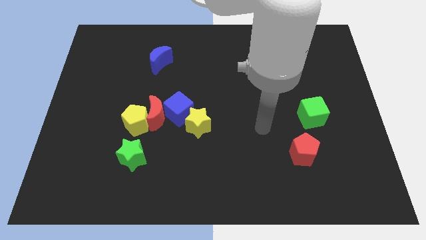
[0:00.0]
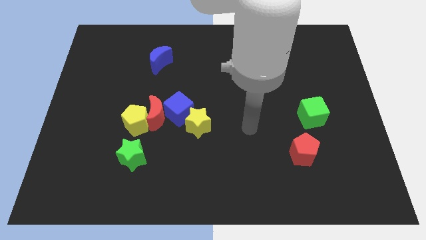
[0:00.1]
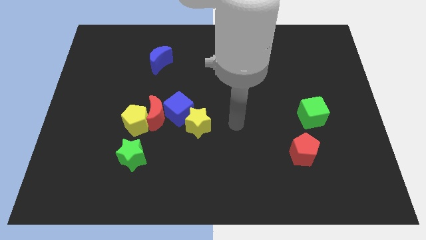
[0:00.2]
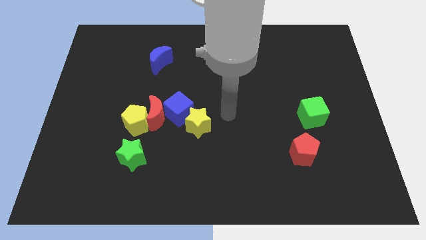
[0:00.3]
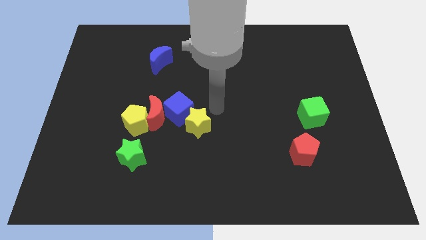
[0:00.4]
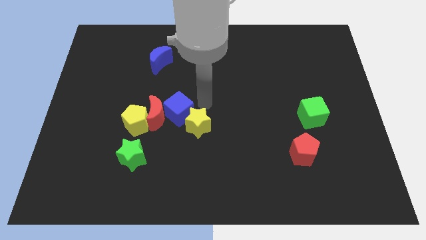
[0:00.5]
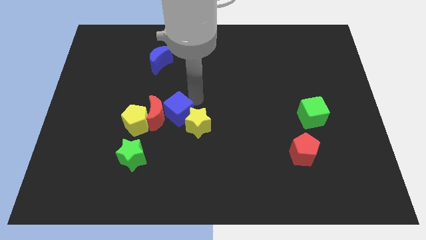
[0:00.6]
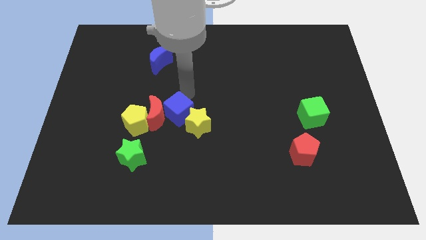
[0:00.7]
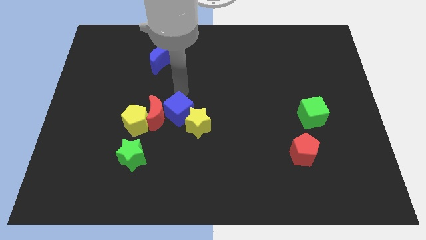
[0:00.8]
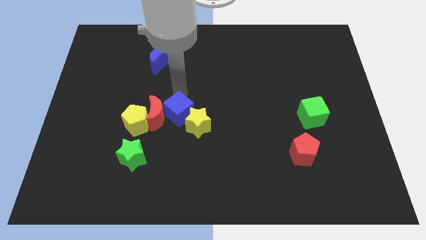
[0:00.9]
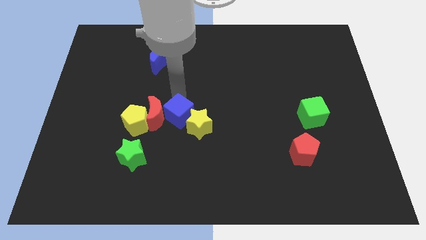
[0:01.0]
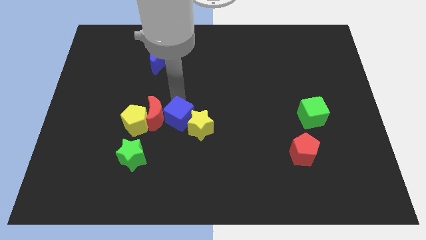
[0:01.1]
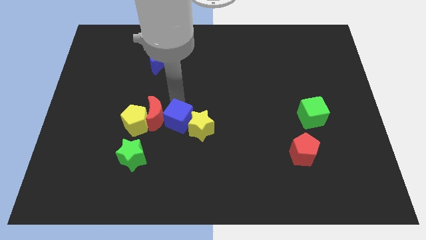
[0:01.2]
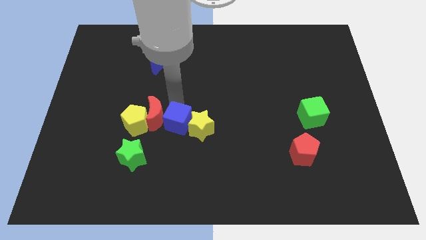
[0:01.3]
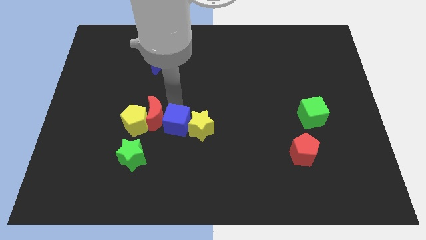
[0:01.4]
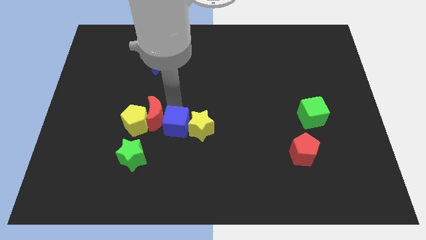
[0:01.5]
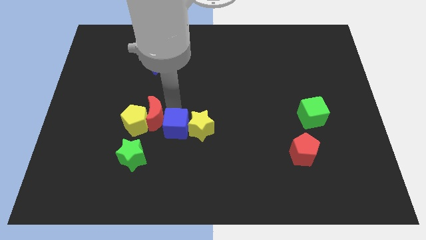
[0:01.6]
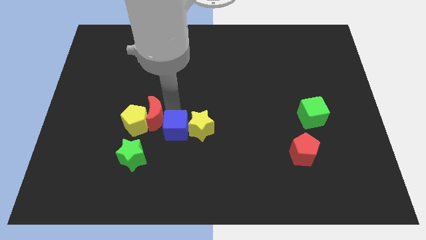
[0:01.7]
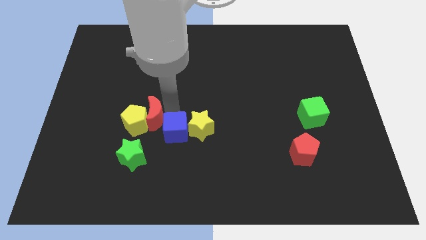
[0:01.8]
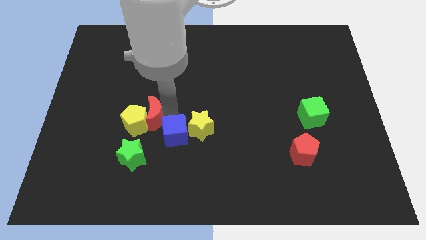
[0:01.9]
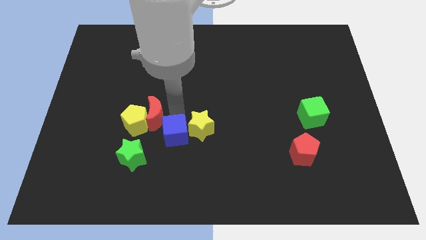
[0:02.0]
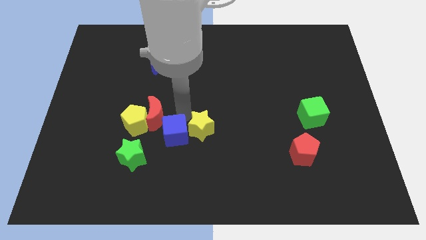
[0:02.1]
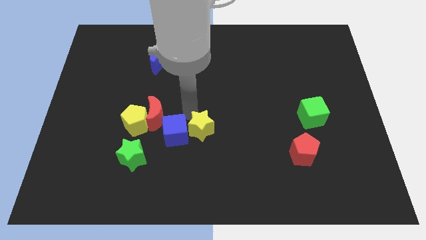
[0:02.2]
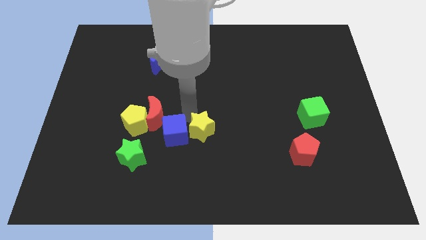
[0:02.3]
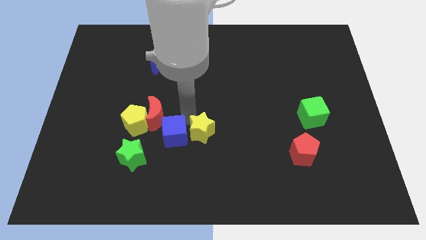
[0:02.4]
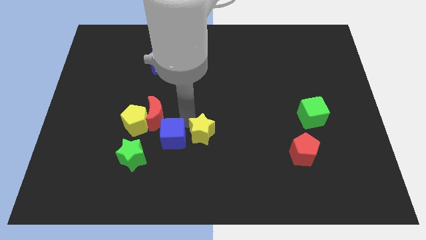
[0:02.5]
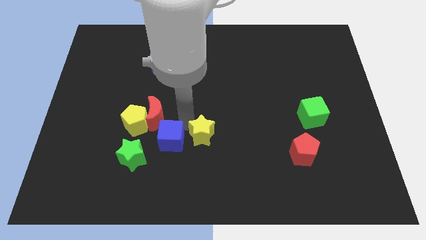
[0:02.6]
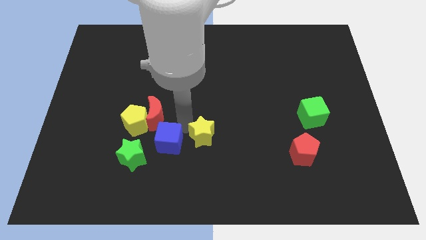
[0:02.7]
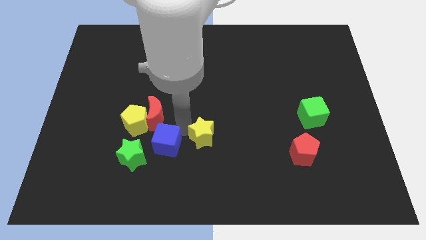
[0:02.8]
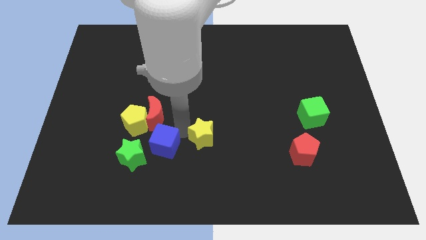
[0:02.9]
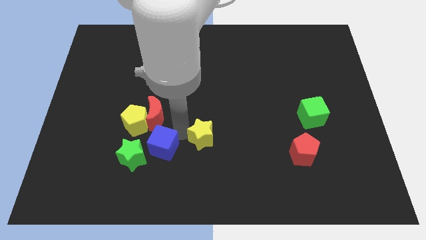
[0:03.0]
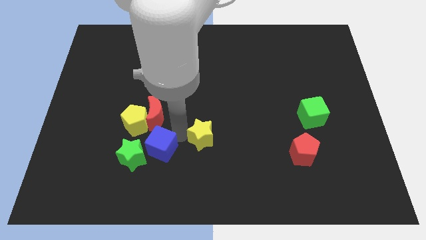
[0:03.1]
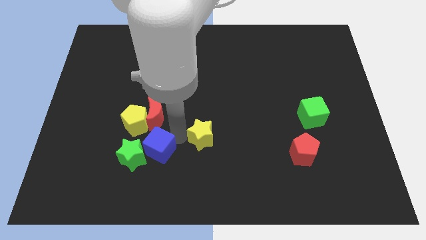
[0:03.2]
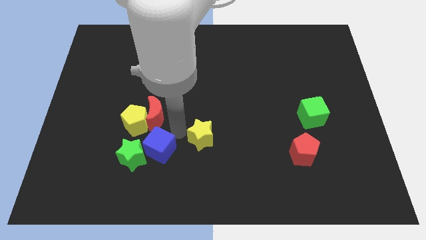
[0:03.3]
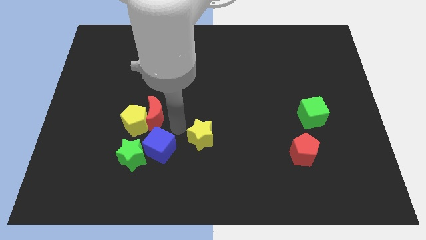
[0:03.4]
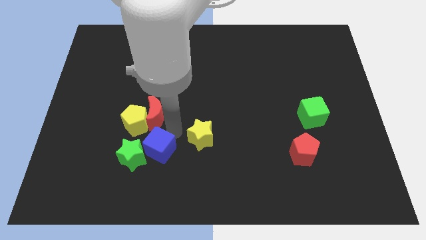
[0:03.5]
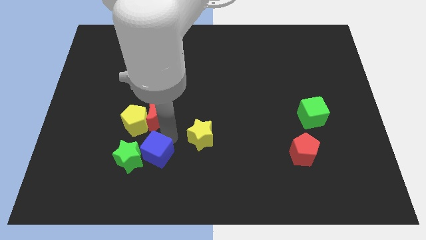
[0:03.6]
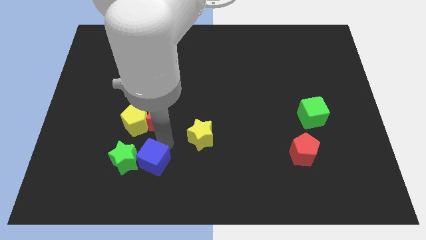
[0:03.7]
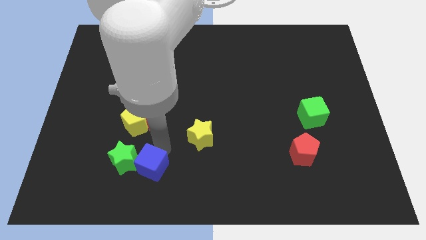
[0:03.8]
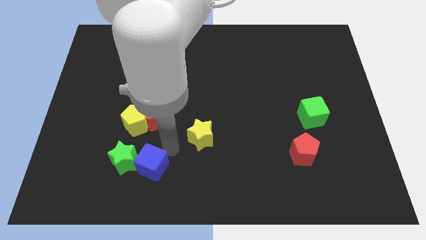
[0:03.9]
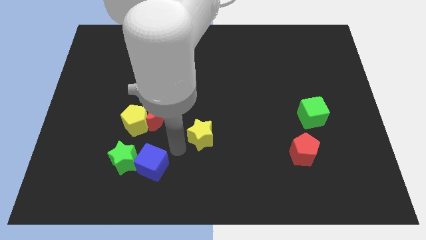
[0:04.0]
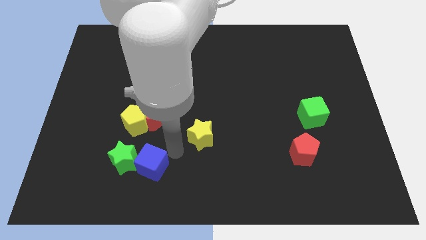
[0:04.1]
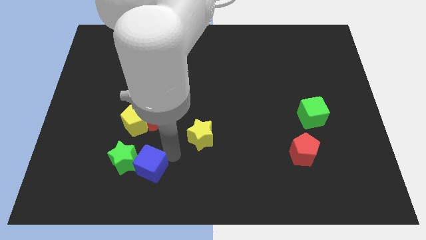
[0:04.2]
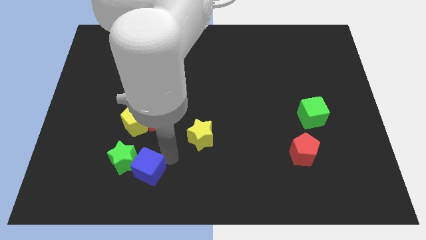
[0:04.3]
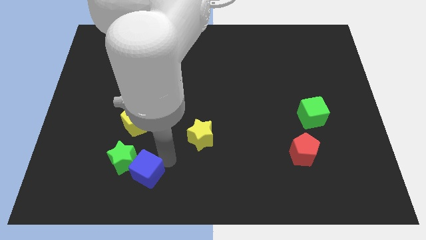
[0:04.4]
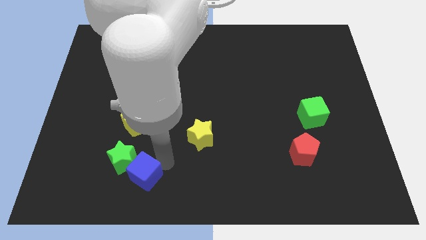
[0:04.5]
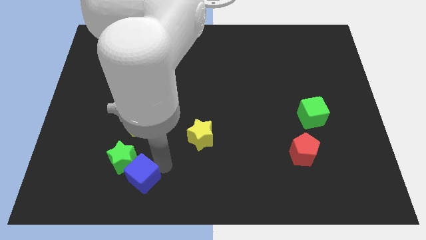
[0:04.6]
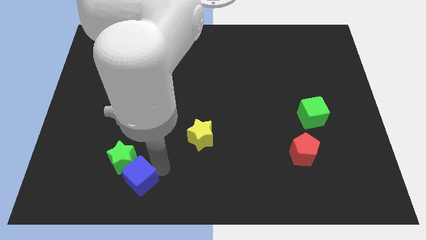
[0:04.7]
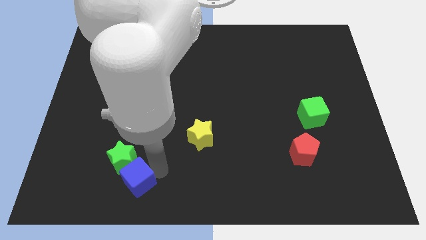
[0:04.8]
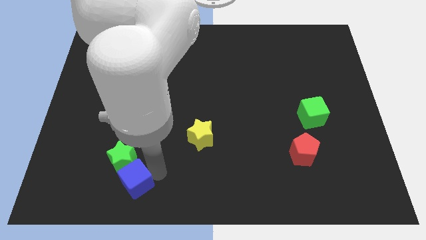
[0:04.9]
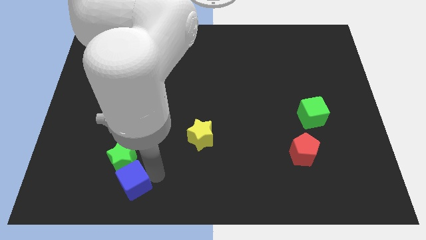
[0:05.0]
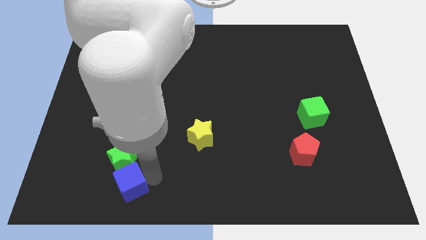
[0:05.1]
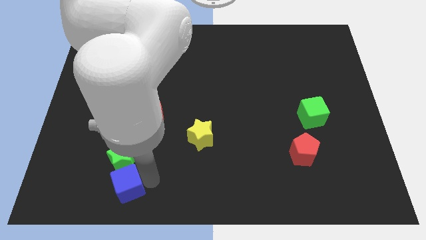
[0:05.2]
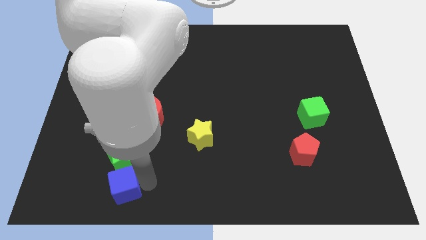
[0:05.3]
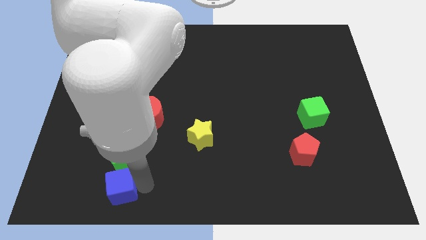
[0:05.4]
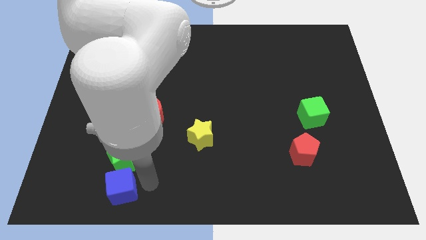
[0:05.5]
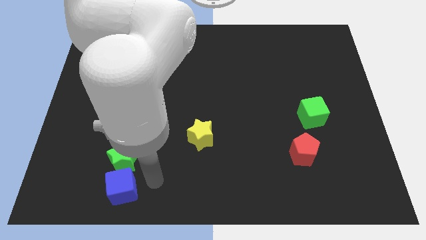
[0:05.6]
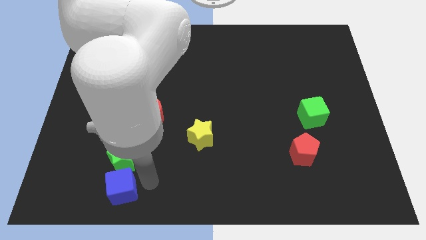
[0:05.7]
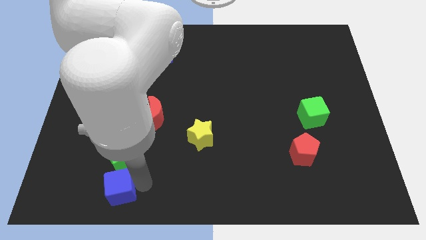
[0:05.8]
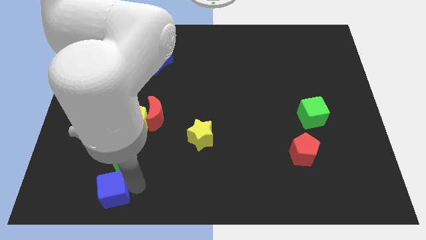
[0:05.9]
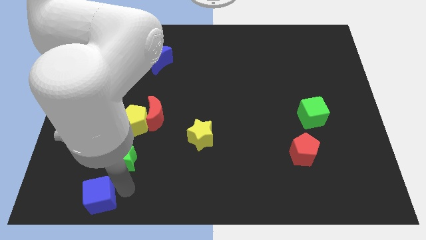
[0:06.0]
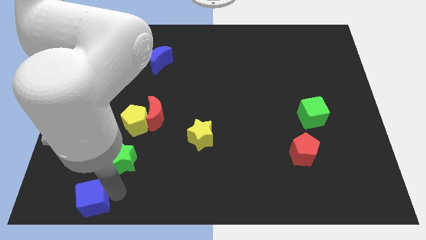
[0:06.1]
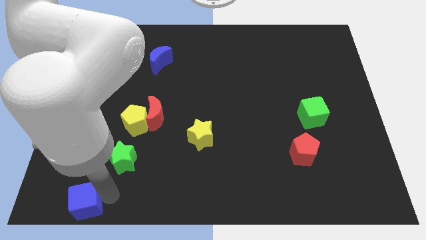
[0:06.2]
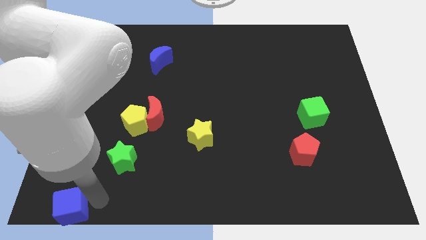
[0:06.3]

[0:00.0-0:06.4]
slide the blue cube to the bottom left corner

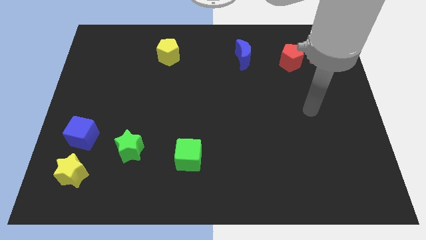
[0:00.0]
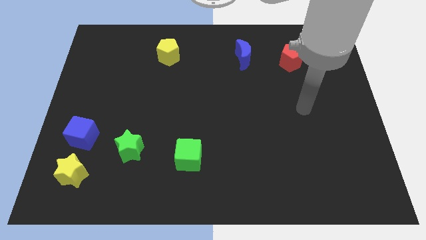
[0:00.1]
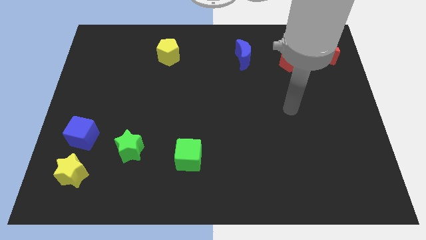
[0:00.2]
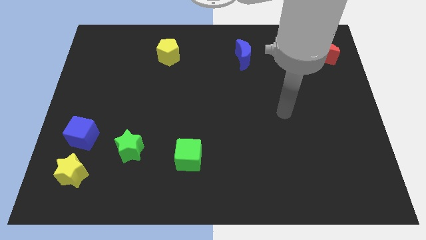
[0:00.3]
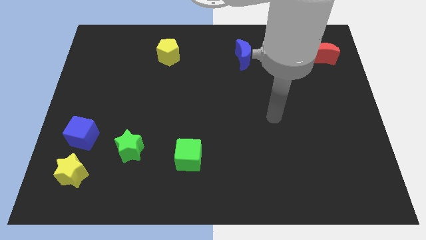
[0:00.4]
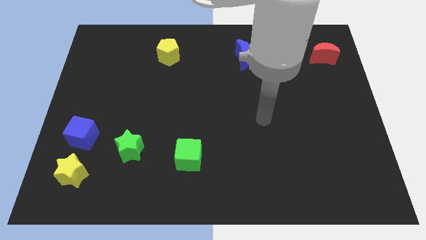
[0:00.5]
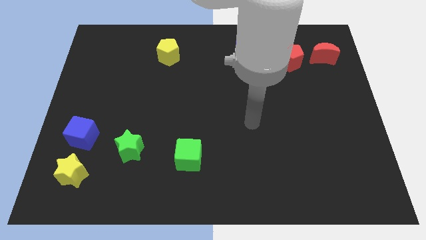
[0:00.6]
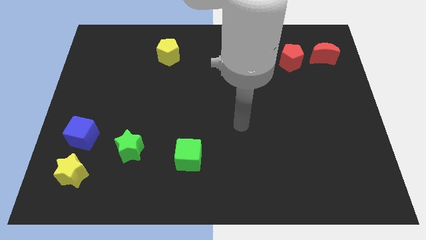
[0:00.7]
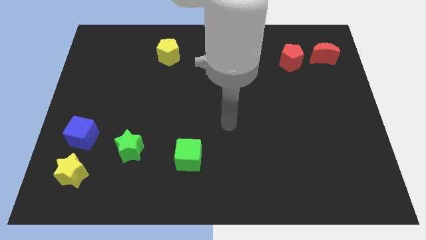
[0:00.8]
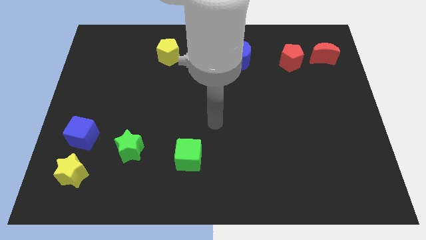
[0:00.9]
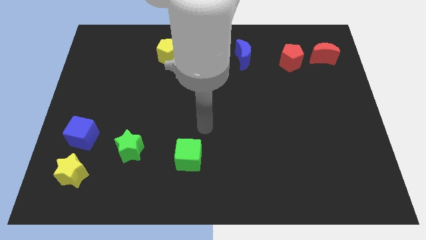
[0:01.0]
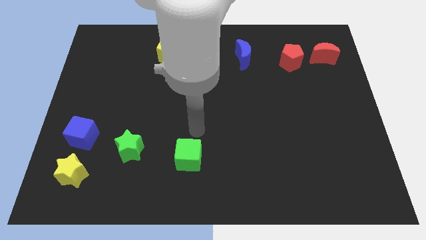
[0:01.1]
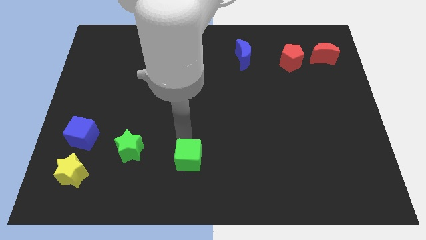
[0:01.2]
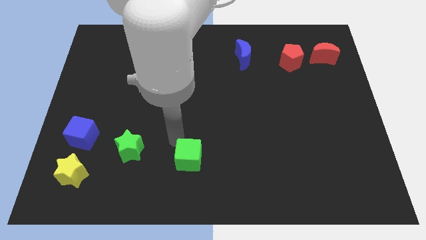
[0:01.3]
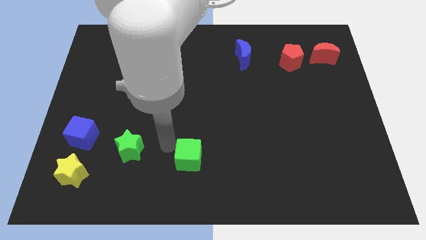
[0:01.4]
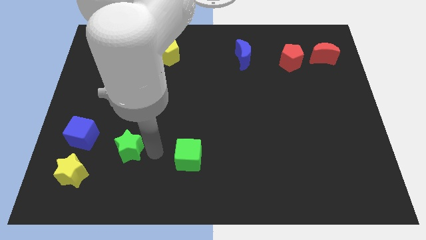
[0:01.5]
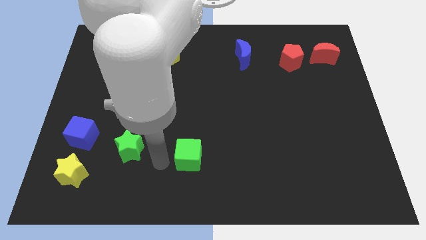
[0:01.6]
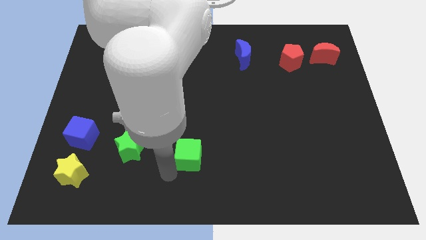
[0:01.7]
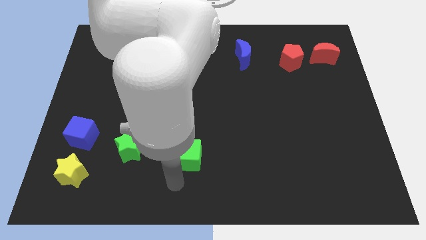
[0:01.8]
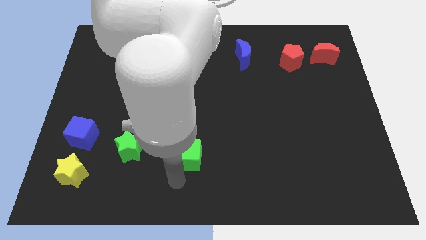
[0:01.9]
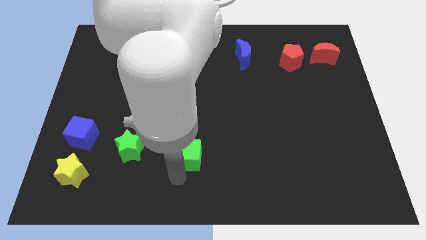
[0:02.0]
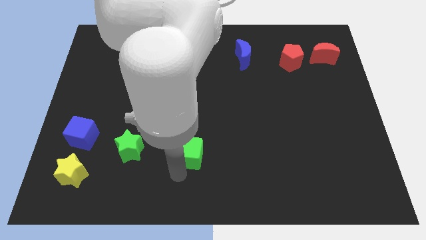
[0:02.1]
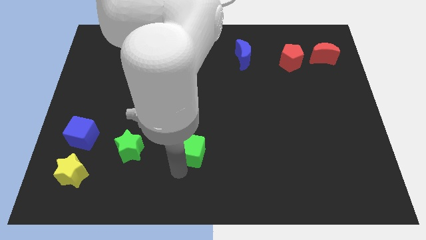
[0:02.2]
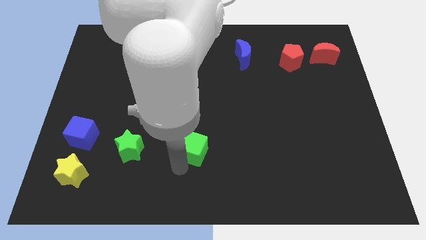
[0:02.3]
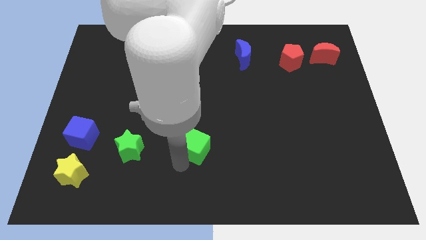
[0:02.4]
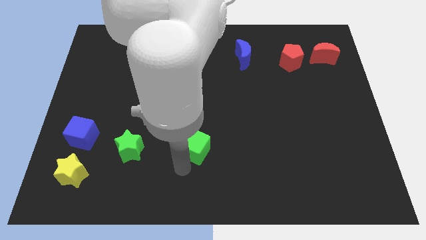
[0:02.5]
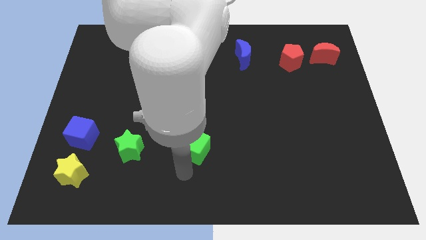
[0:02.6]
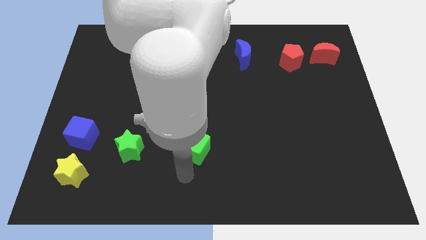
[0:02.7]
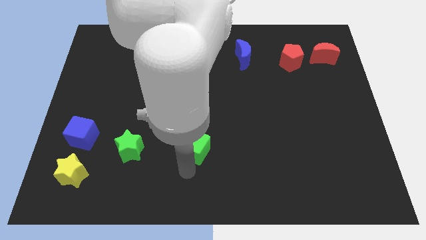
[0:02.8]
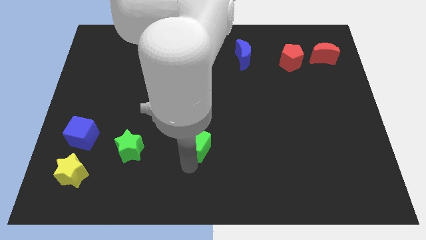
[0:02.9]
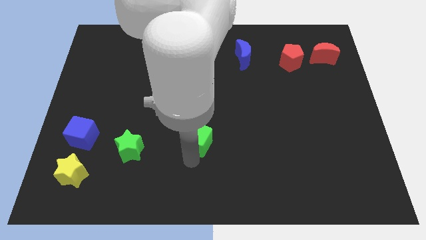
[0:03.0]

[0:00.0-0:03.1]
slide the green cube to the center of the board
